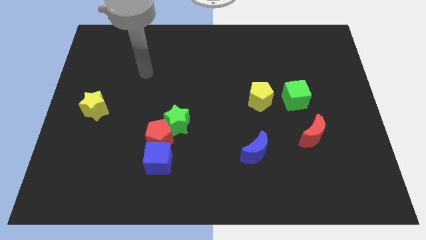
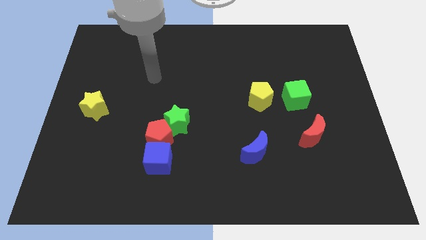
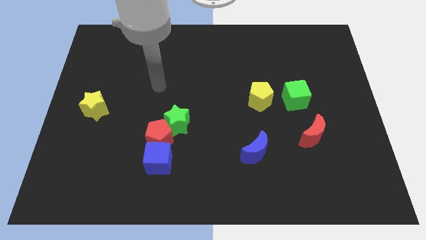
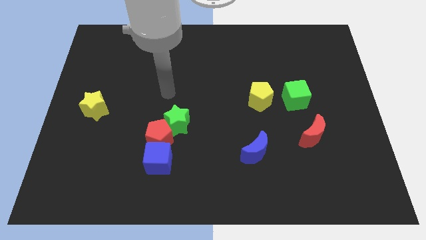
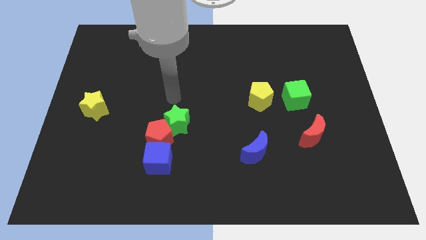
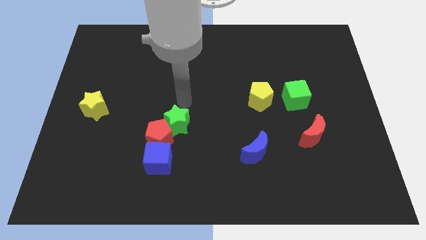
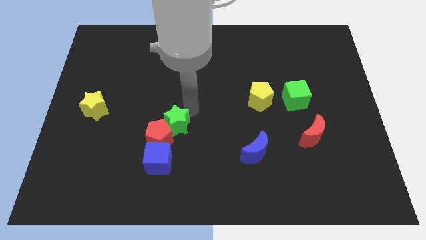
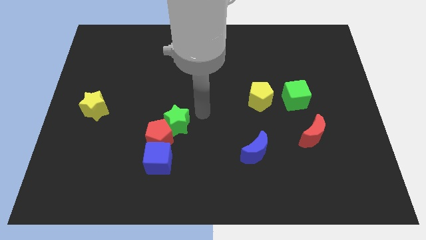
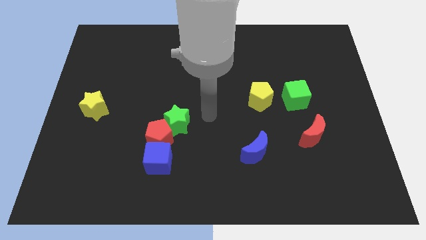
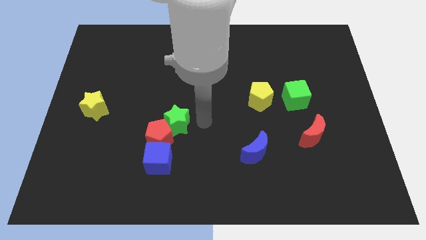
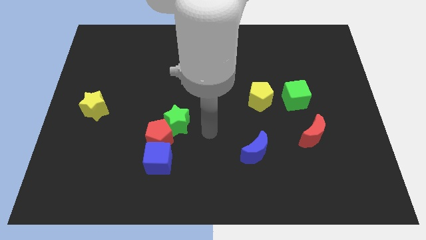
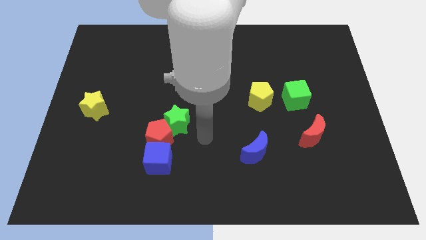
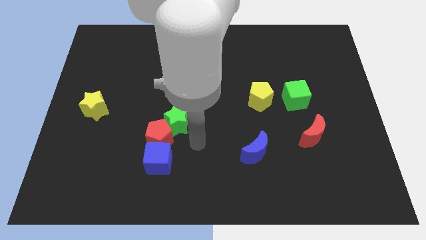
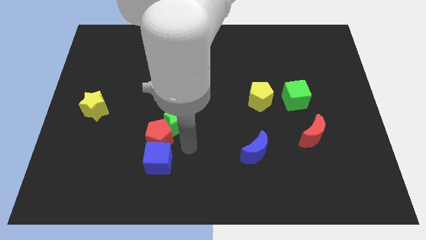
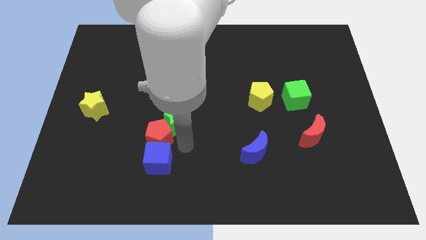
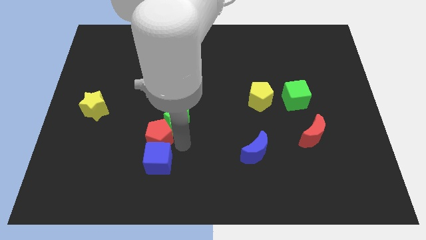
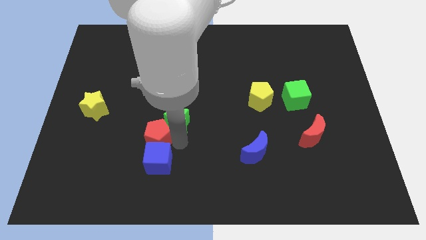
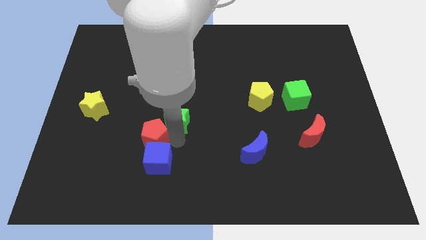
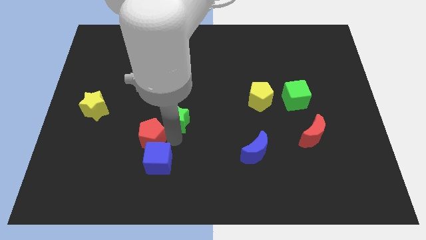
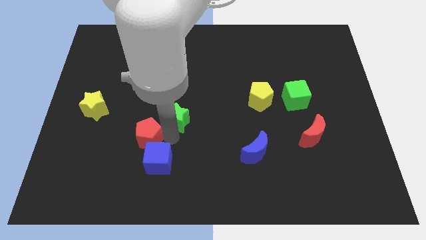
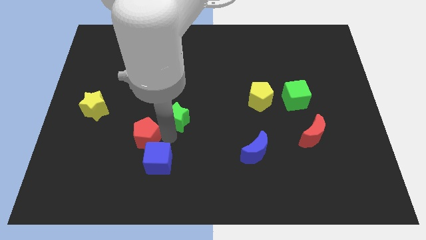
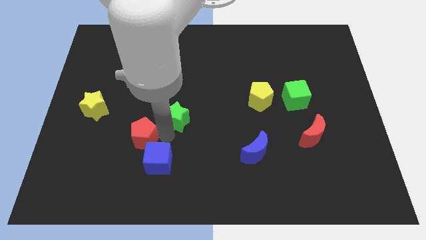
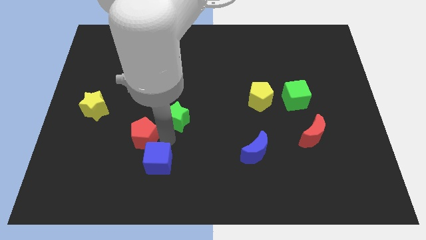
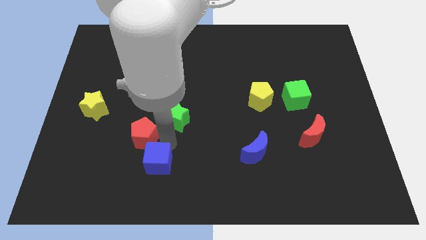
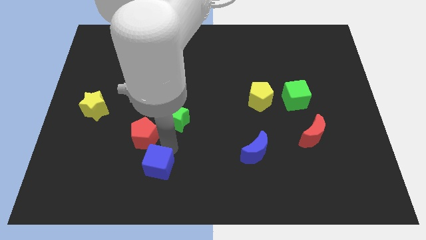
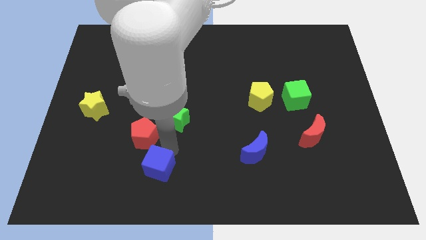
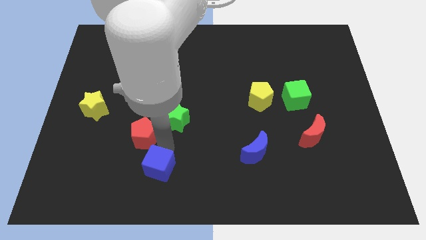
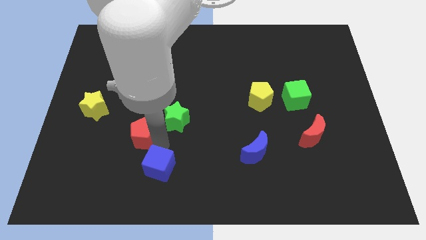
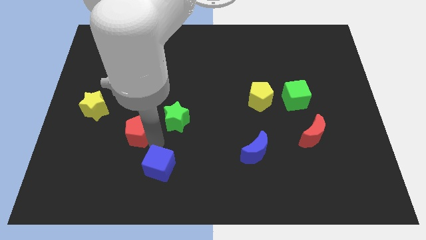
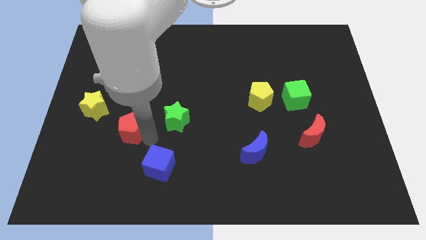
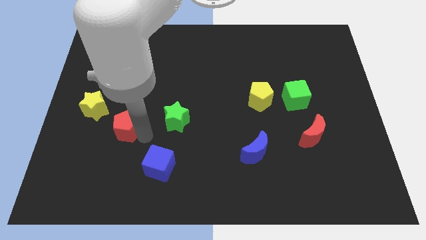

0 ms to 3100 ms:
separate the red pentagon from the green star and blue cube

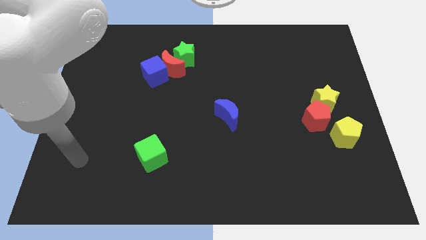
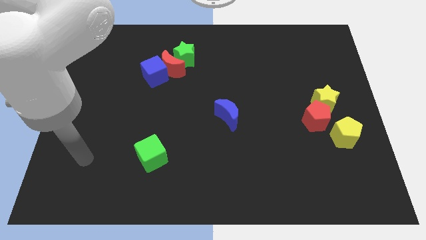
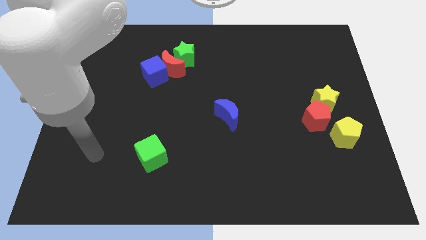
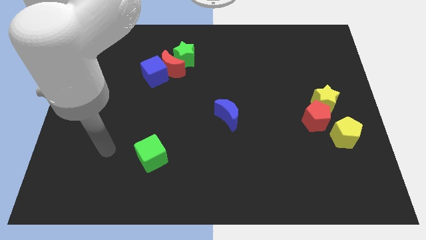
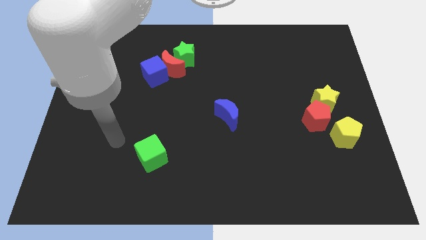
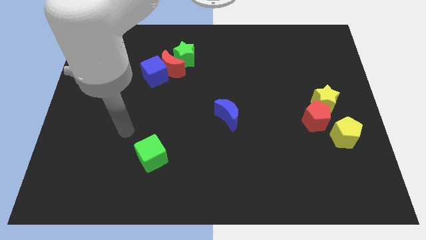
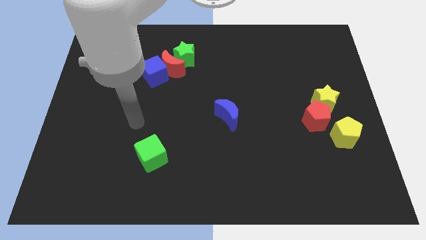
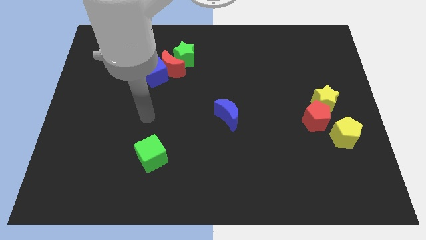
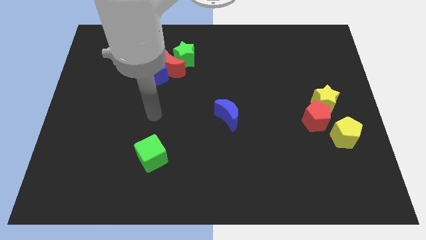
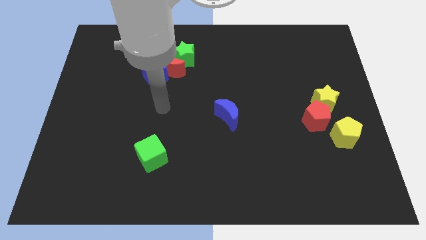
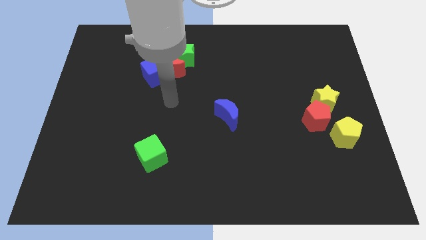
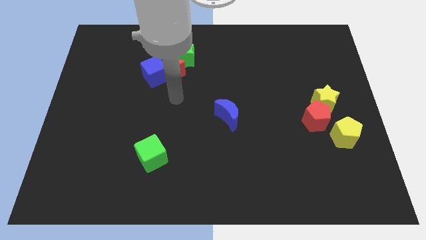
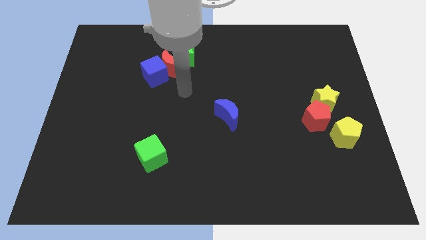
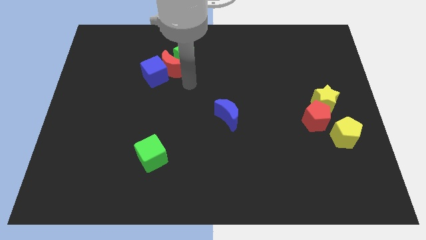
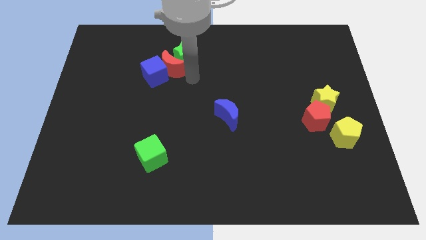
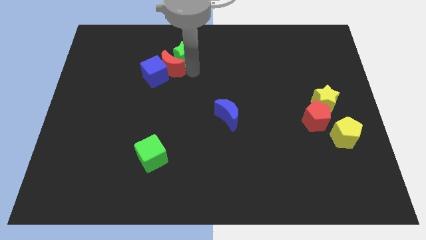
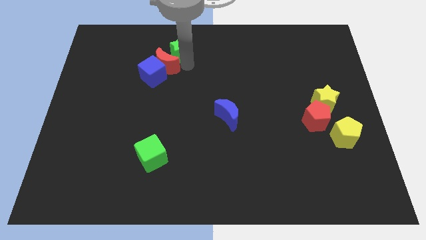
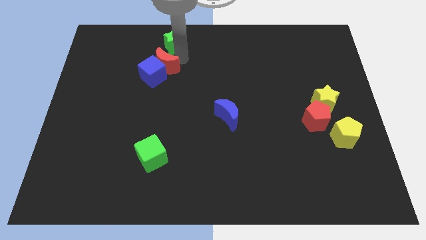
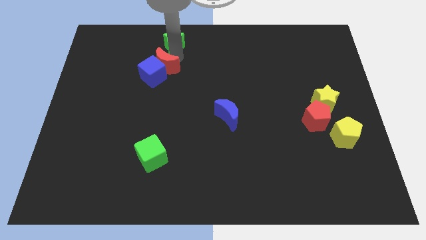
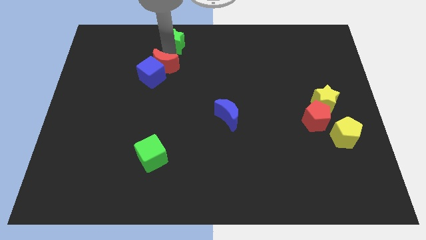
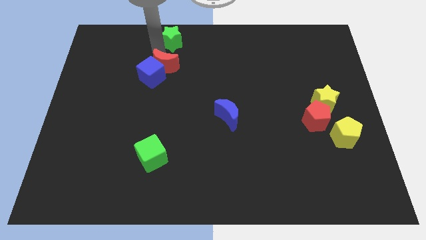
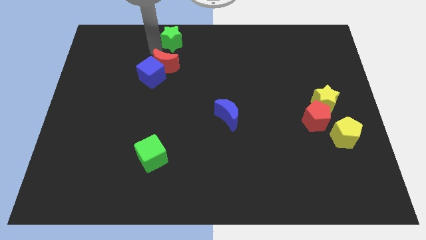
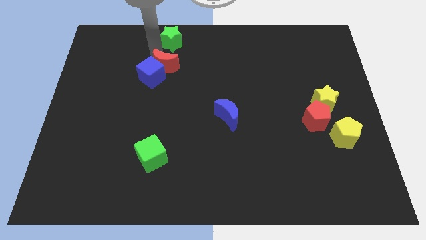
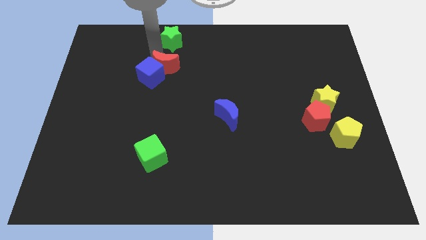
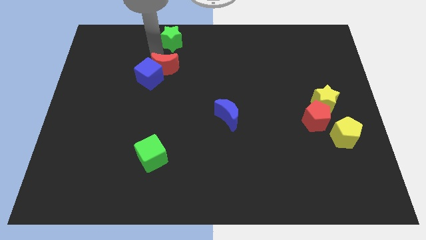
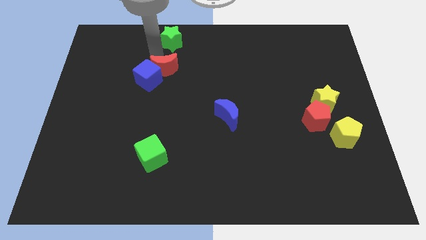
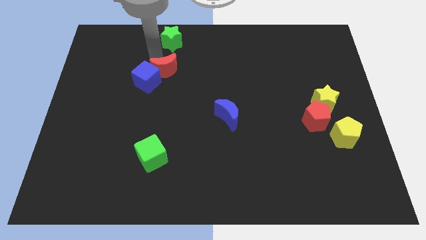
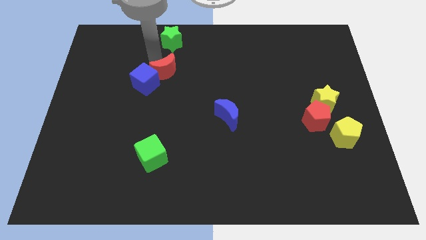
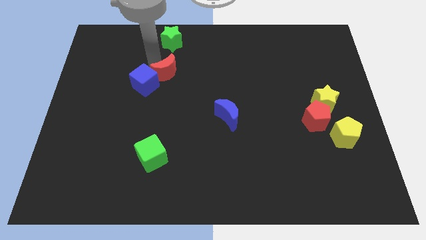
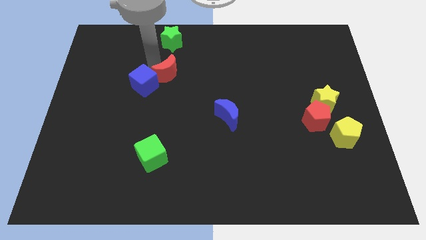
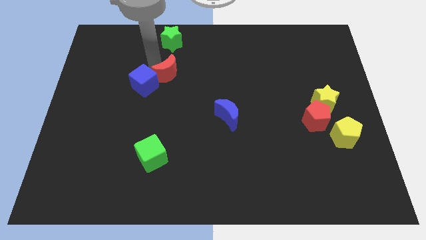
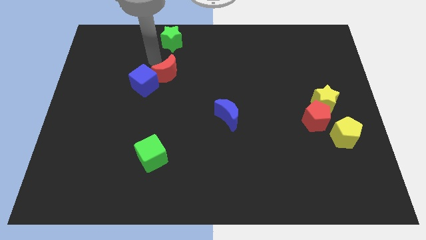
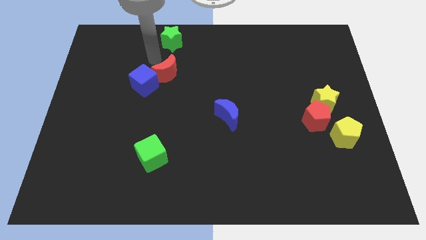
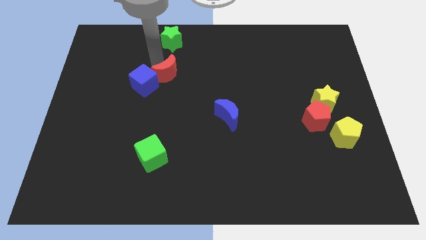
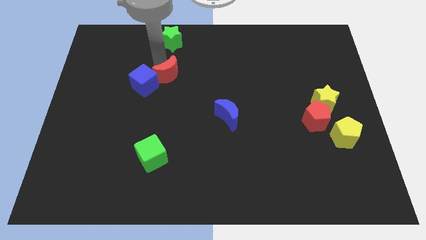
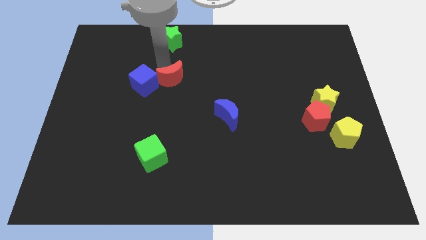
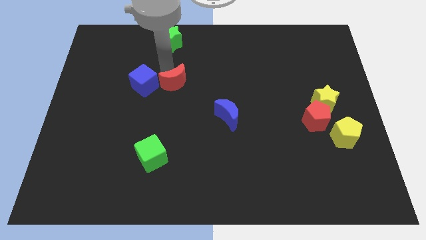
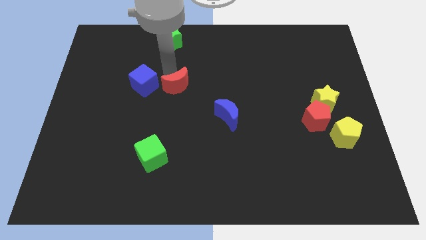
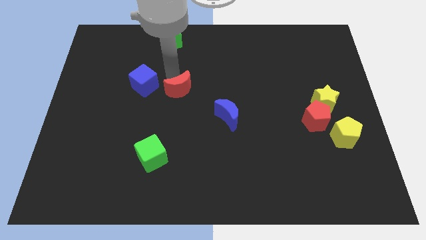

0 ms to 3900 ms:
separate the red moon from the blue cube and green star

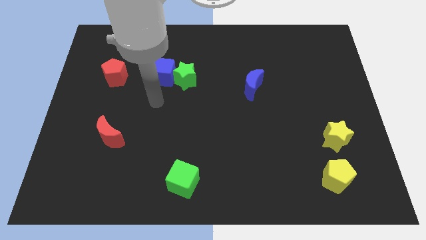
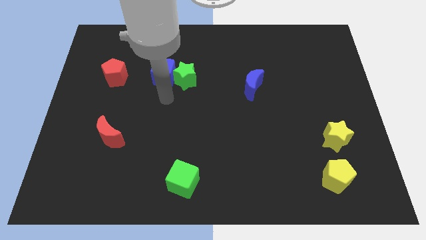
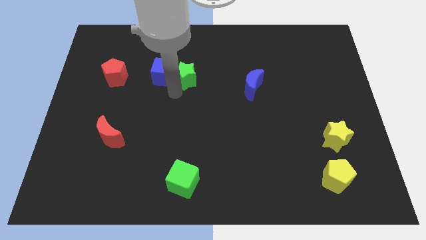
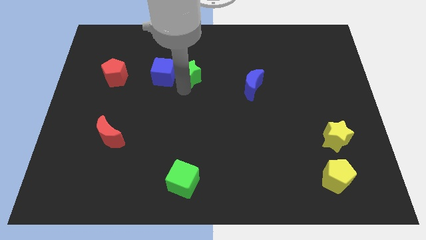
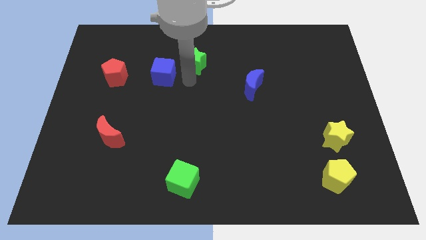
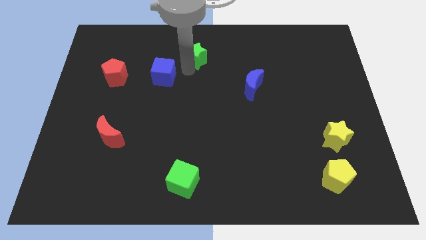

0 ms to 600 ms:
separate the blue cube from the green star

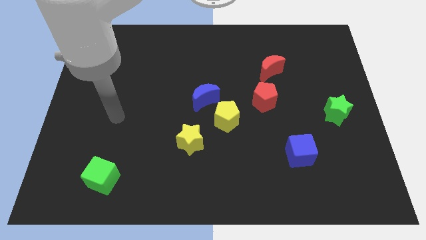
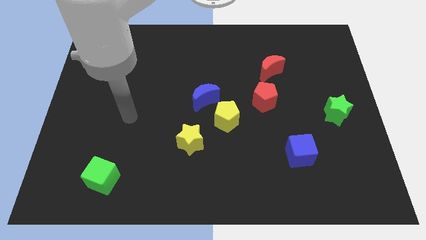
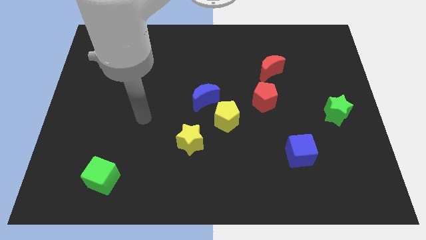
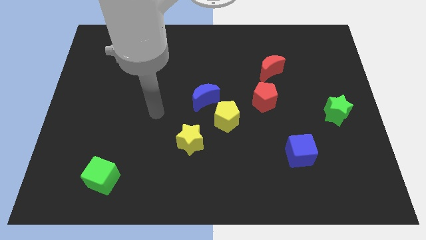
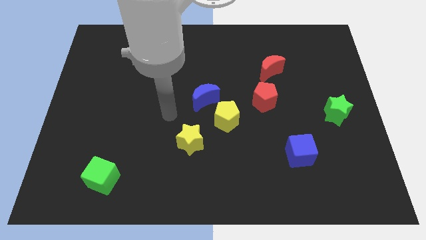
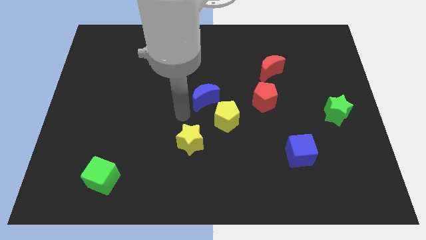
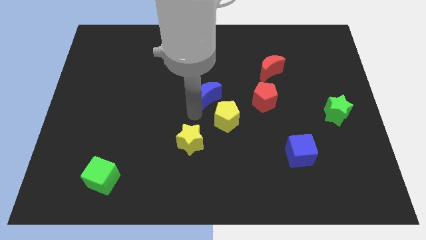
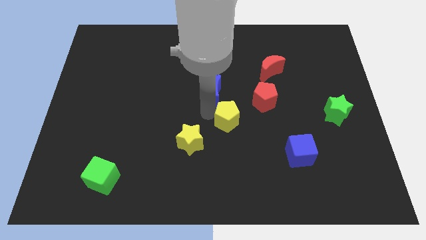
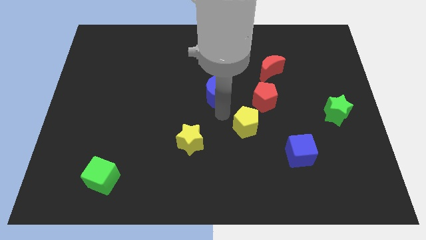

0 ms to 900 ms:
pull the blue moon apart from the yellow pentagon

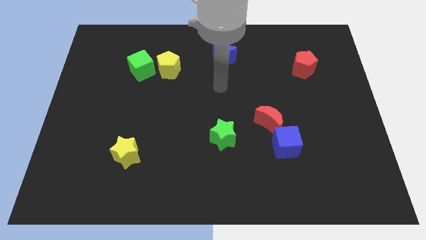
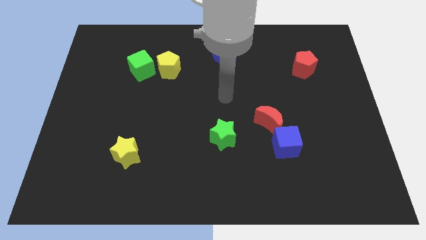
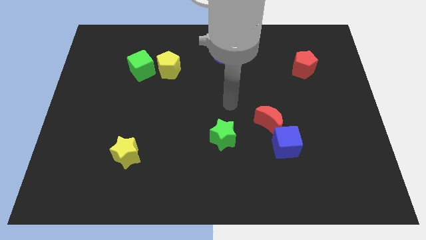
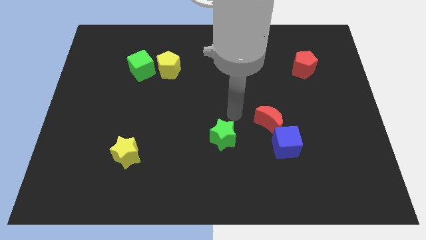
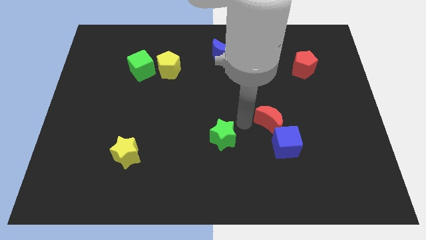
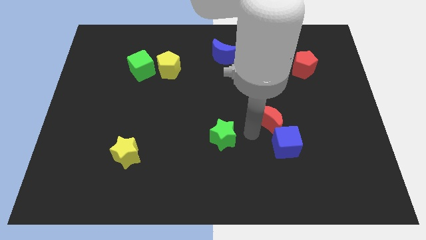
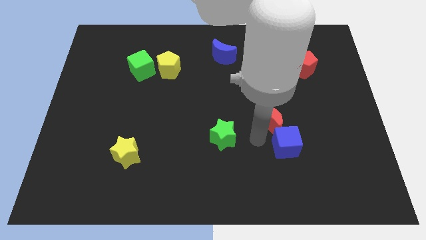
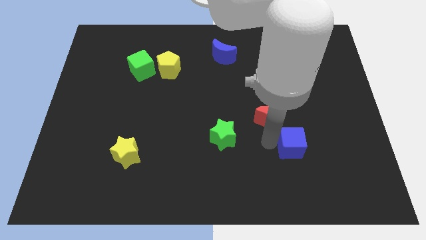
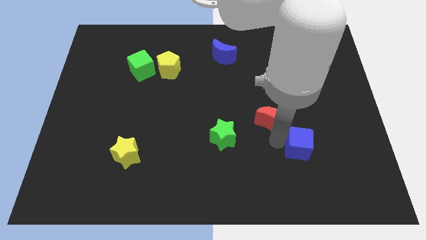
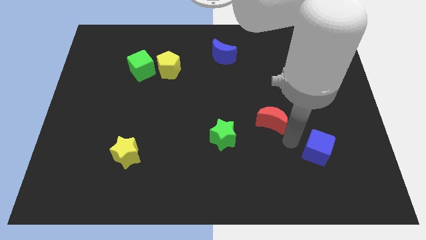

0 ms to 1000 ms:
separate the red moon from the blue cube
